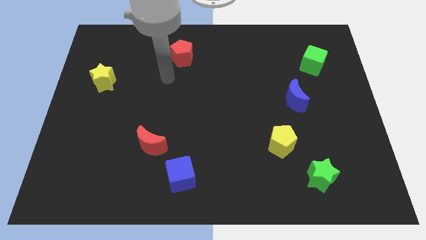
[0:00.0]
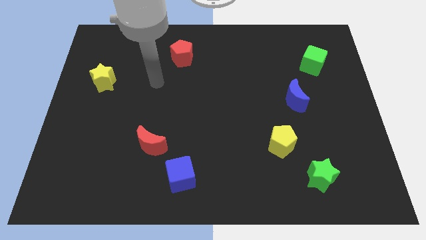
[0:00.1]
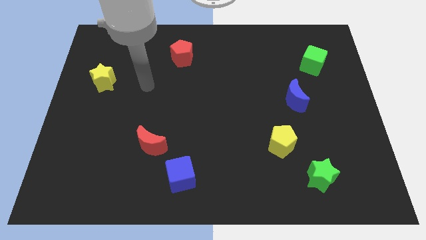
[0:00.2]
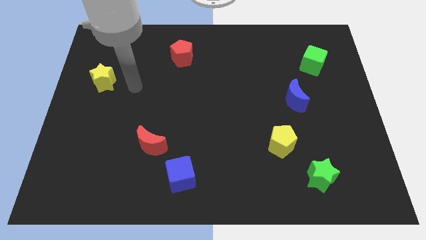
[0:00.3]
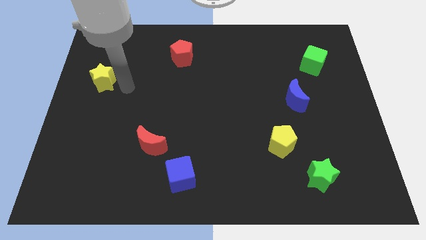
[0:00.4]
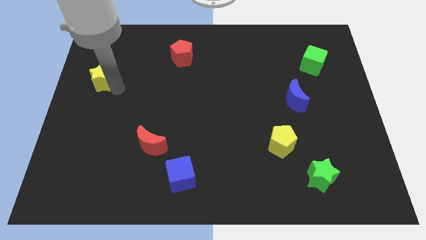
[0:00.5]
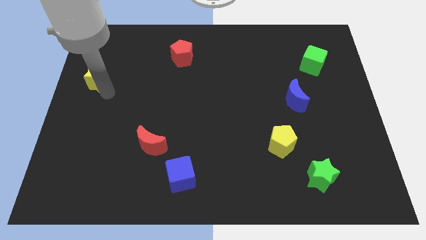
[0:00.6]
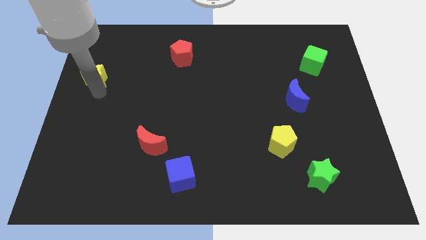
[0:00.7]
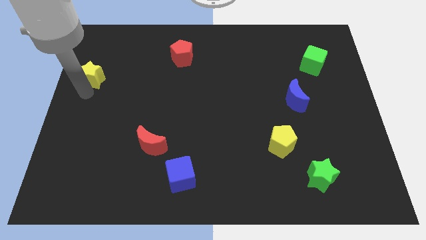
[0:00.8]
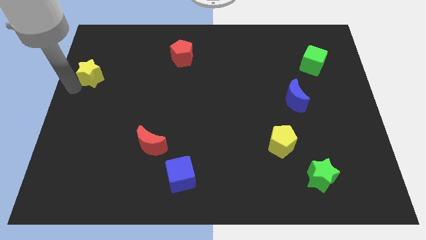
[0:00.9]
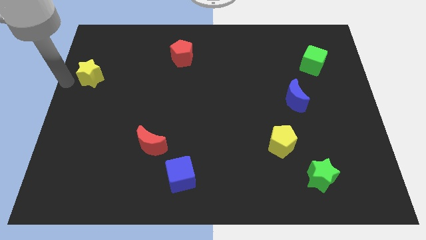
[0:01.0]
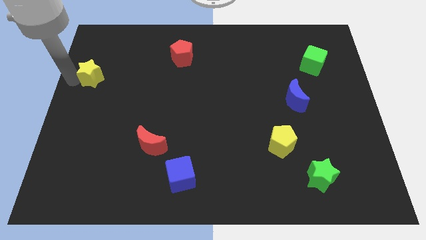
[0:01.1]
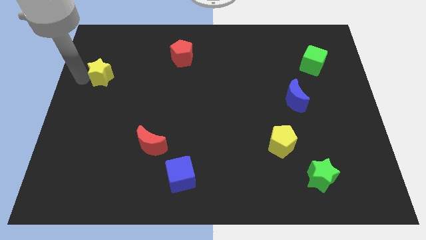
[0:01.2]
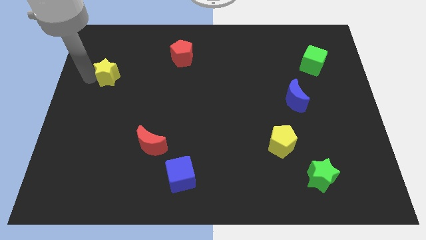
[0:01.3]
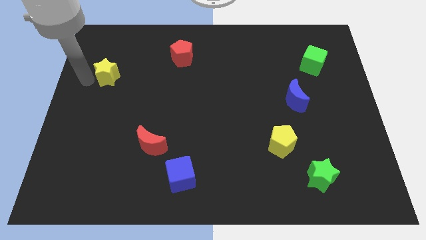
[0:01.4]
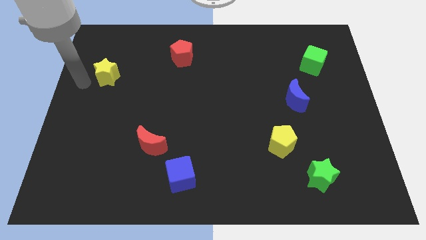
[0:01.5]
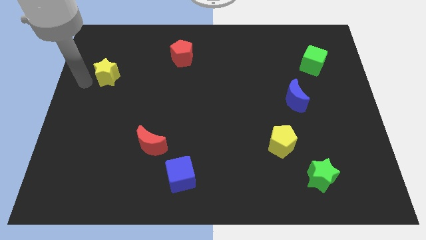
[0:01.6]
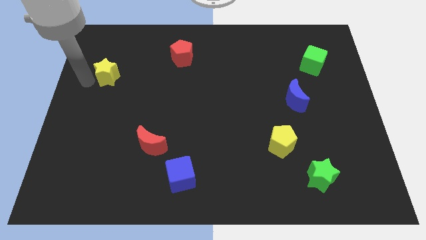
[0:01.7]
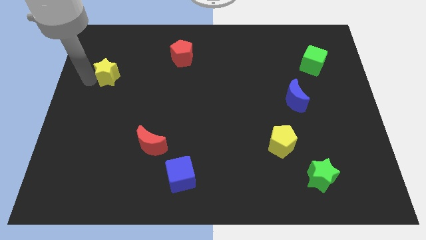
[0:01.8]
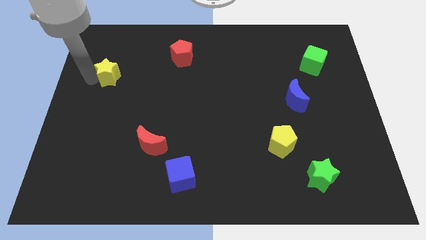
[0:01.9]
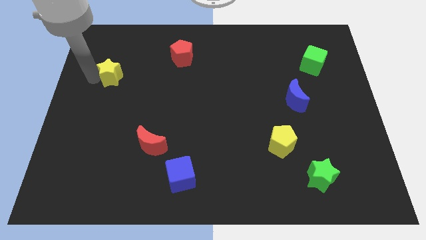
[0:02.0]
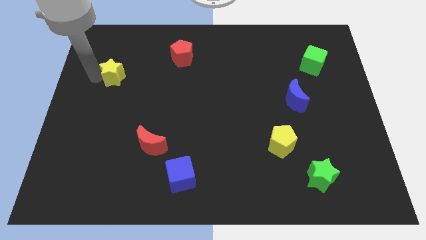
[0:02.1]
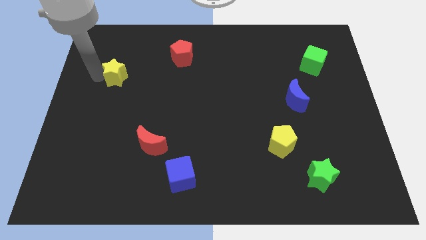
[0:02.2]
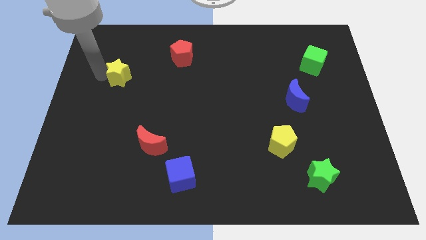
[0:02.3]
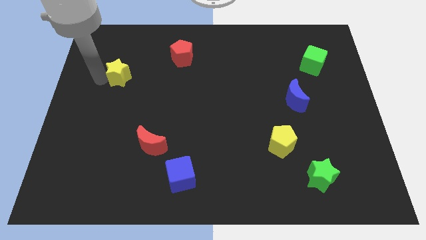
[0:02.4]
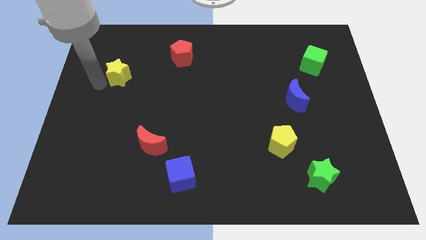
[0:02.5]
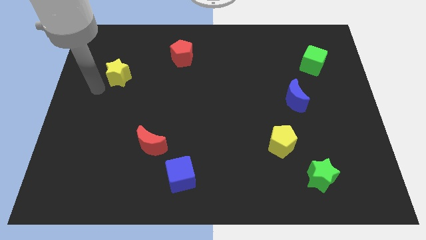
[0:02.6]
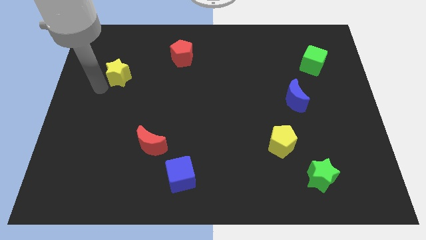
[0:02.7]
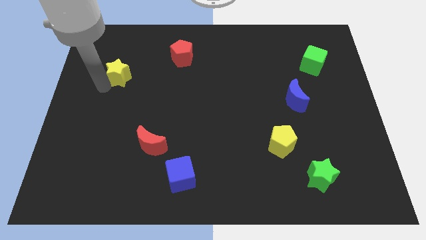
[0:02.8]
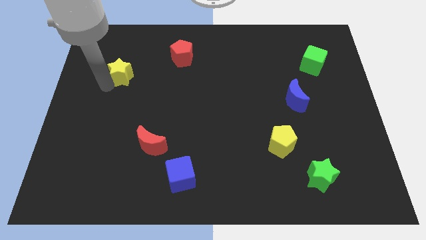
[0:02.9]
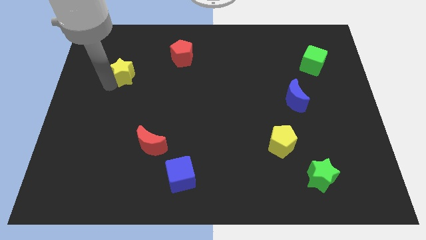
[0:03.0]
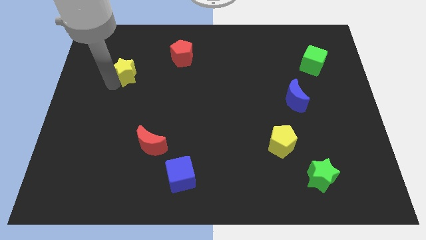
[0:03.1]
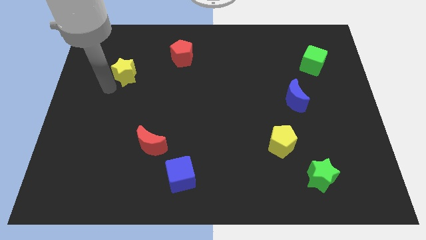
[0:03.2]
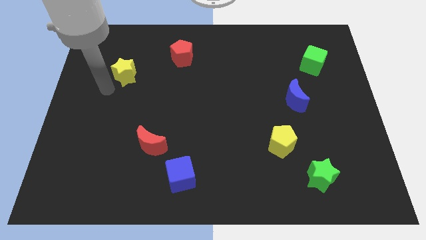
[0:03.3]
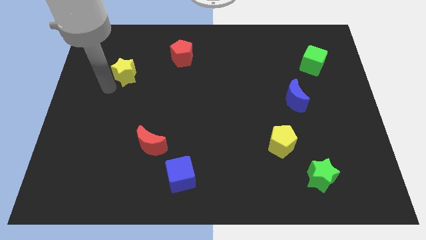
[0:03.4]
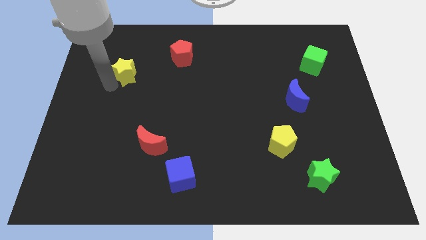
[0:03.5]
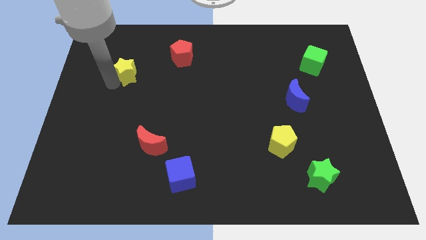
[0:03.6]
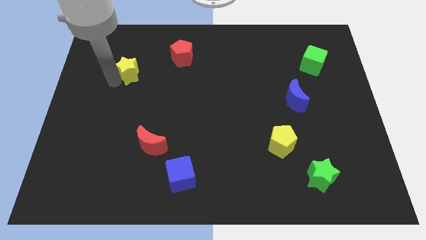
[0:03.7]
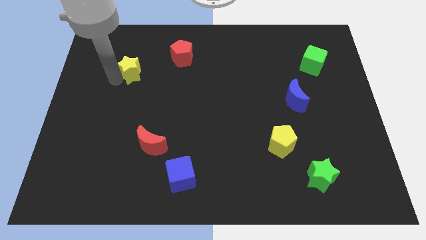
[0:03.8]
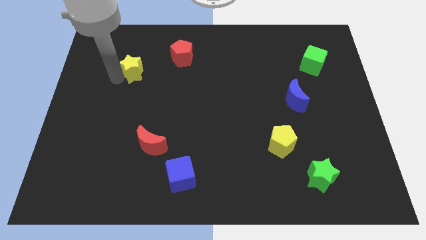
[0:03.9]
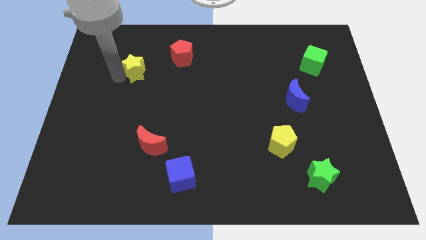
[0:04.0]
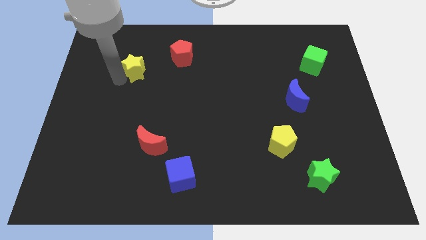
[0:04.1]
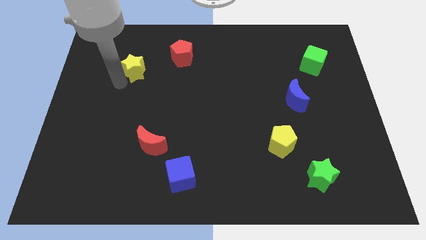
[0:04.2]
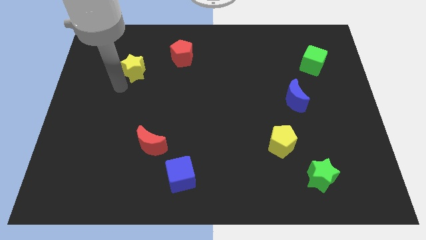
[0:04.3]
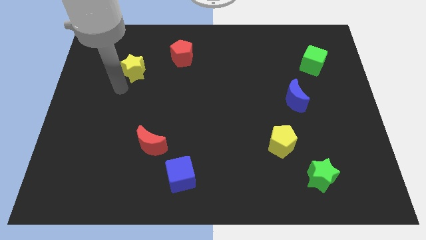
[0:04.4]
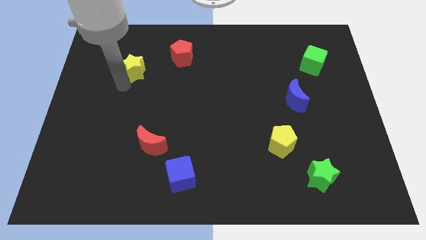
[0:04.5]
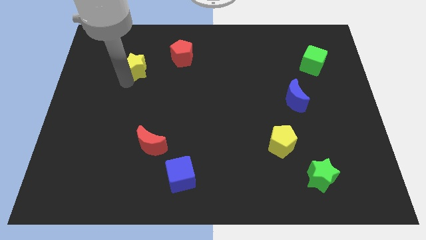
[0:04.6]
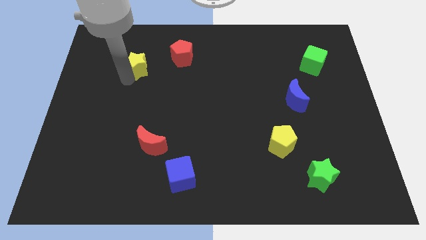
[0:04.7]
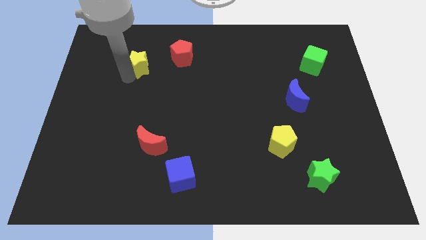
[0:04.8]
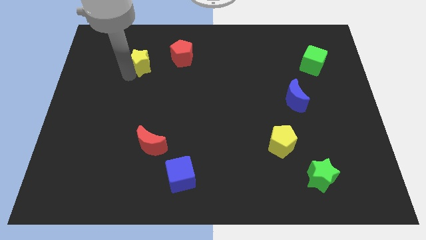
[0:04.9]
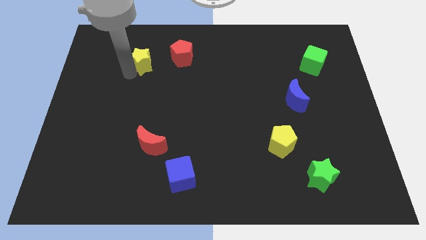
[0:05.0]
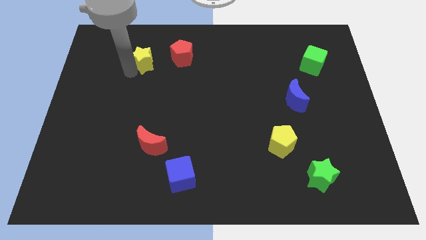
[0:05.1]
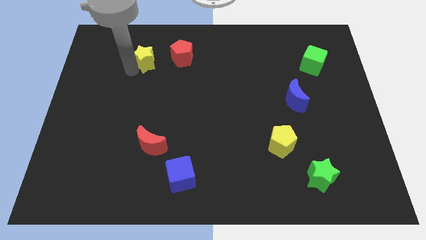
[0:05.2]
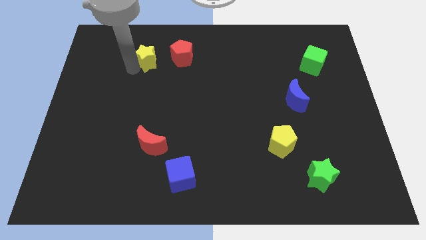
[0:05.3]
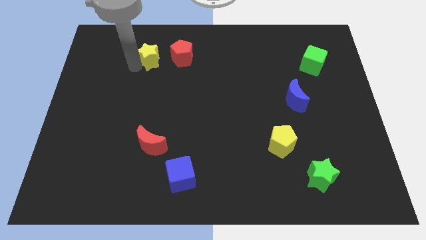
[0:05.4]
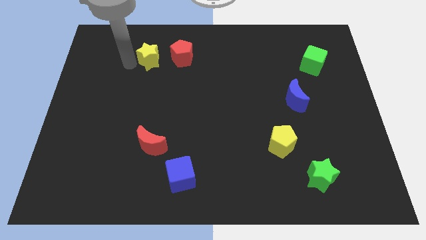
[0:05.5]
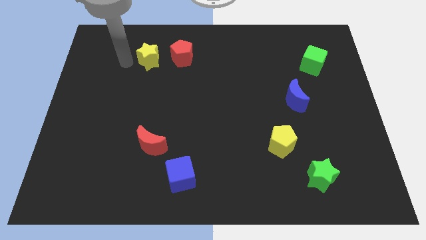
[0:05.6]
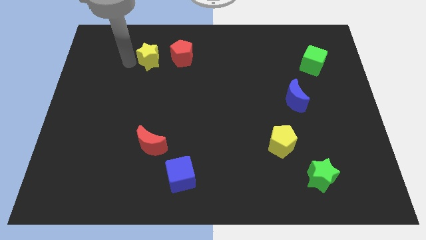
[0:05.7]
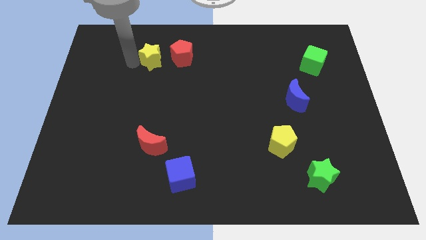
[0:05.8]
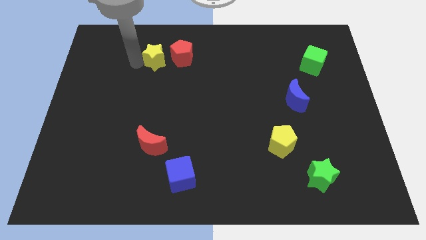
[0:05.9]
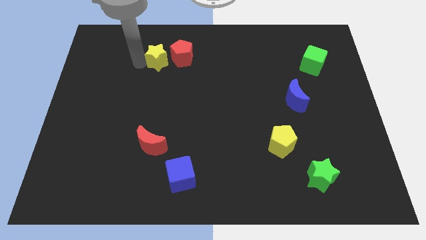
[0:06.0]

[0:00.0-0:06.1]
put the yellow star towards the red pentagon
